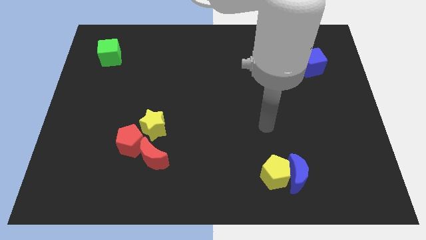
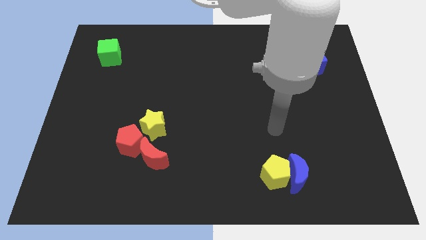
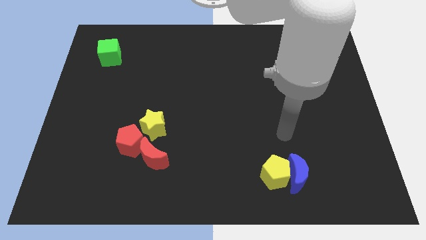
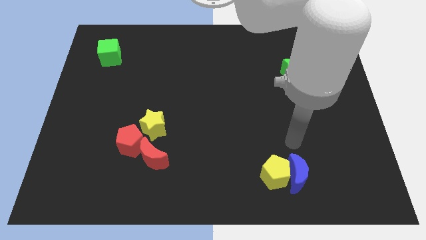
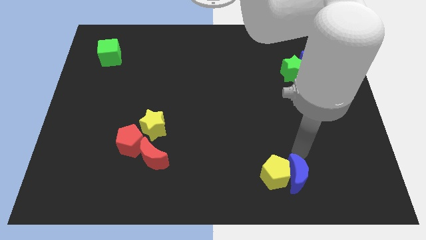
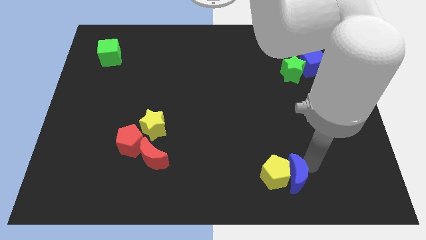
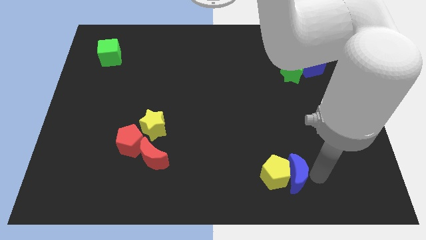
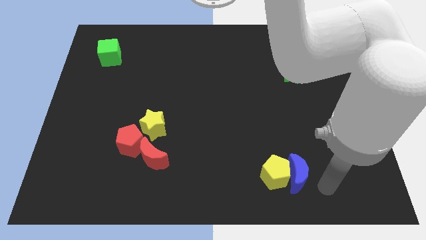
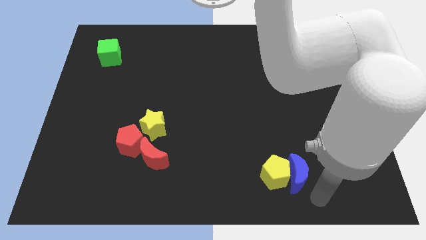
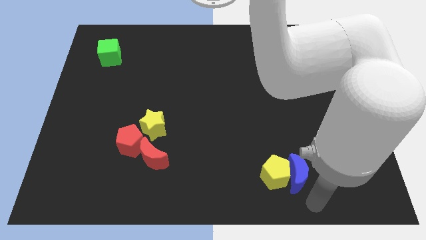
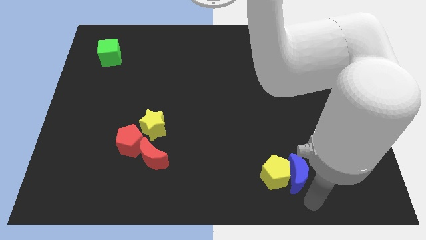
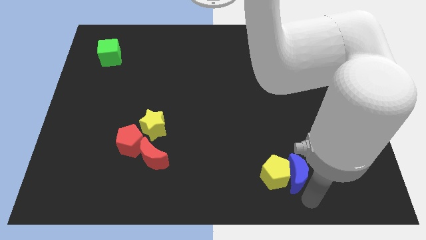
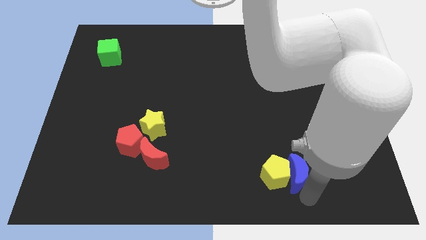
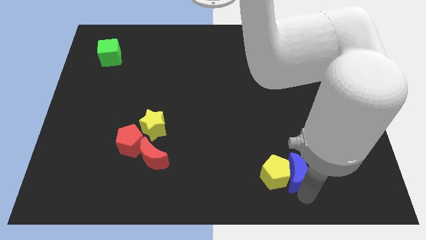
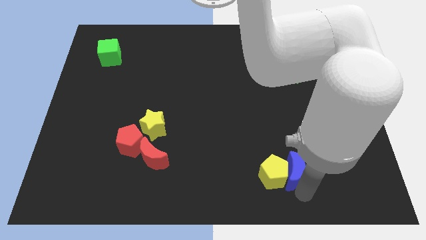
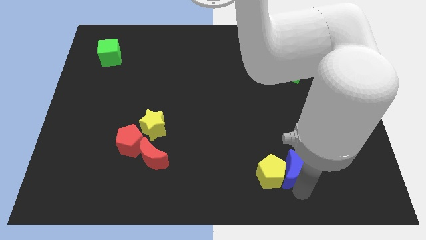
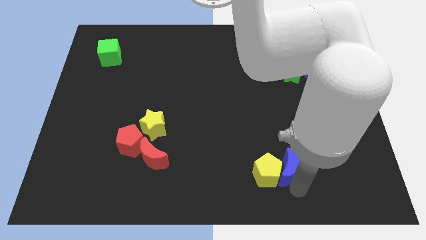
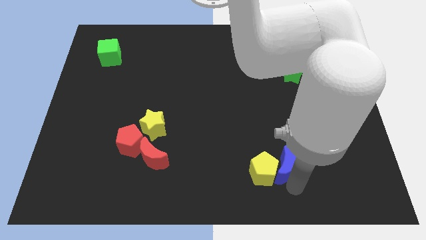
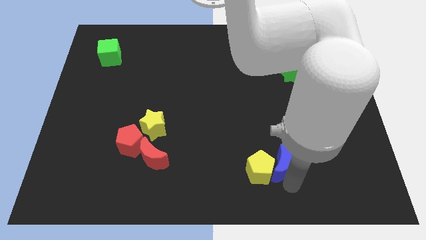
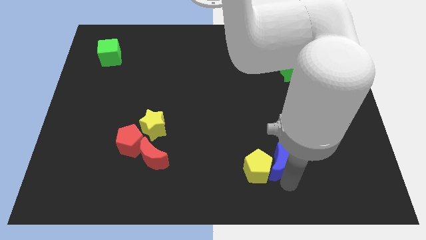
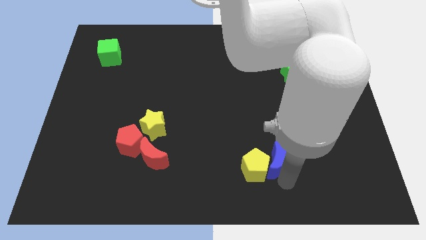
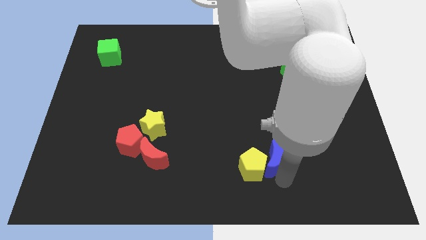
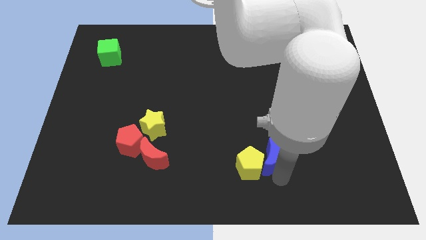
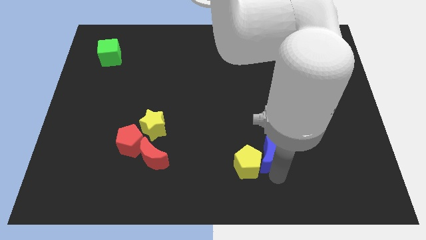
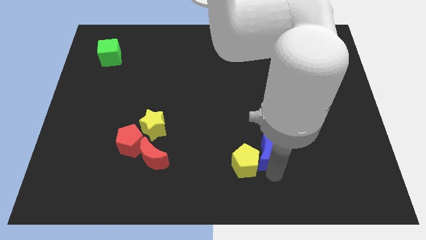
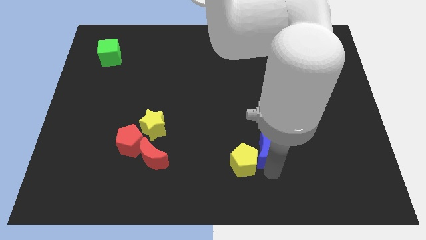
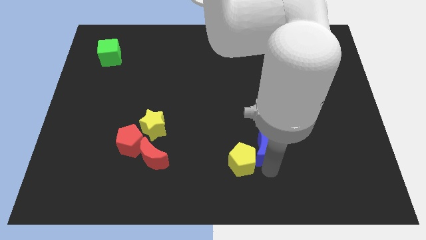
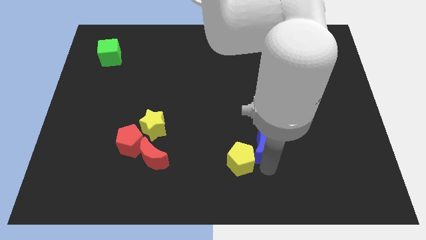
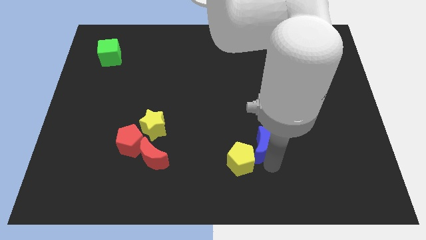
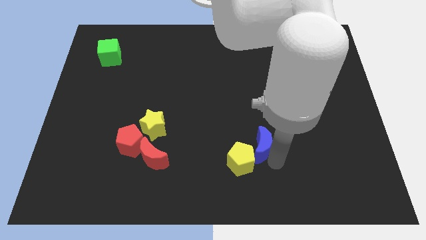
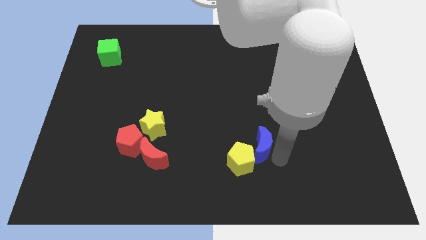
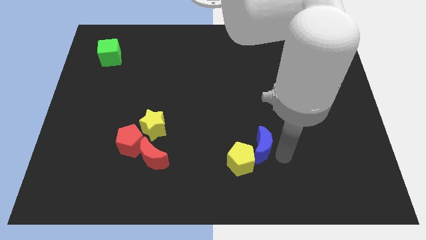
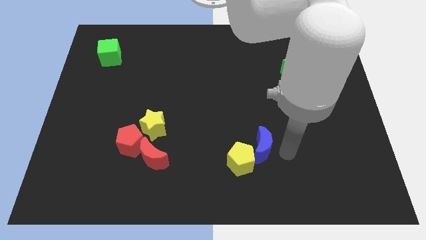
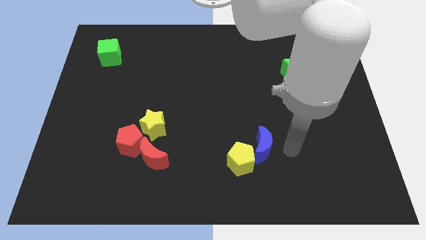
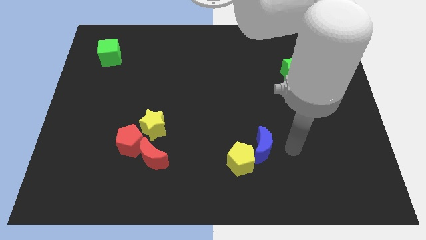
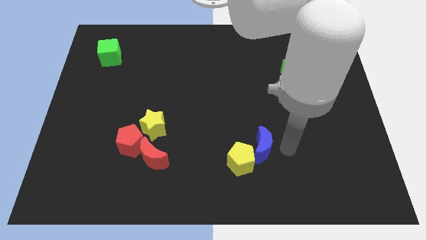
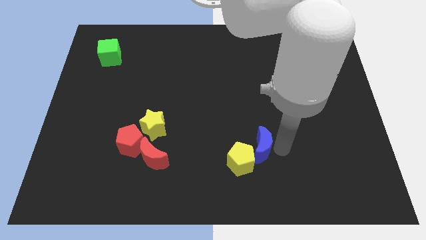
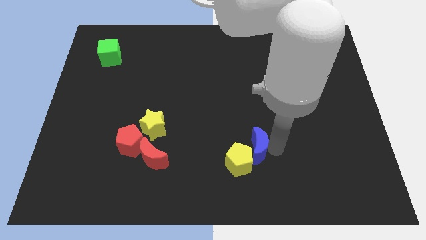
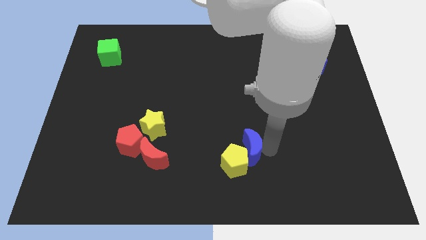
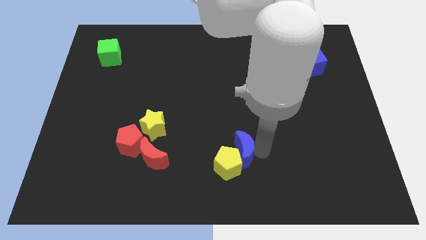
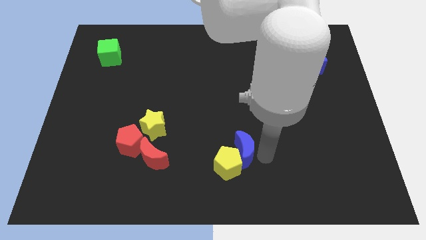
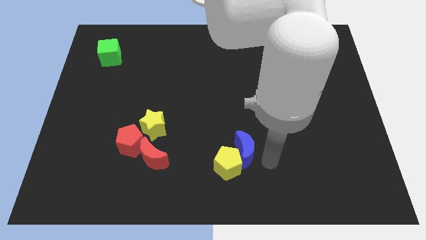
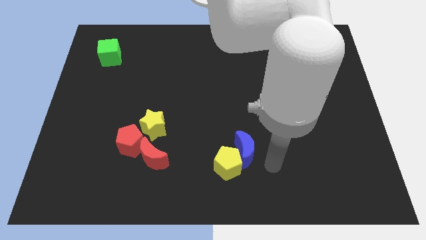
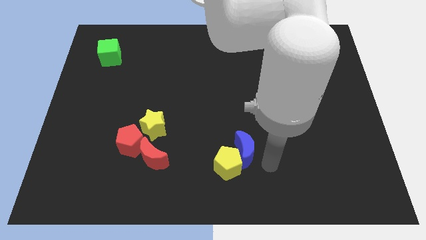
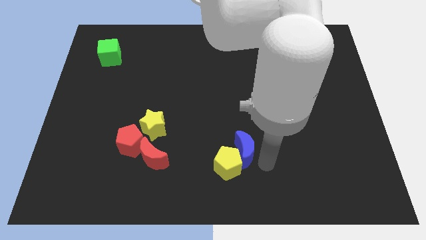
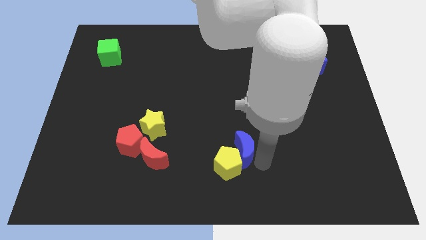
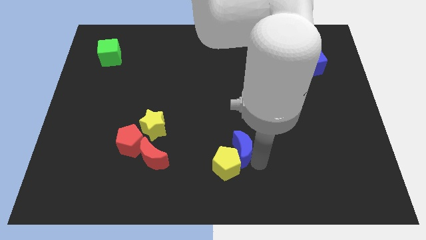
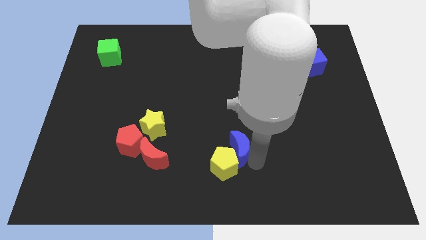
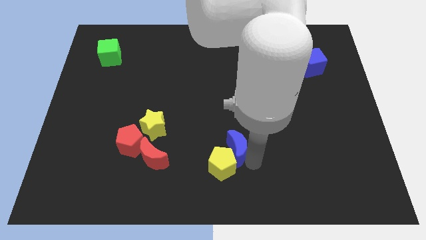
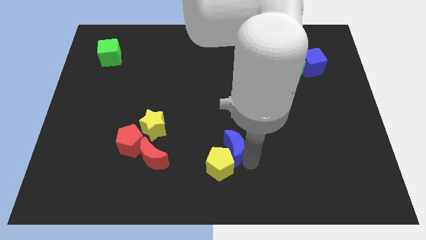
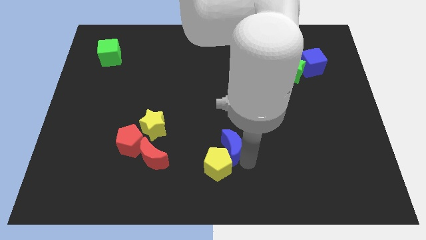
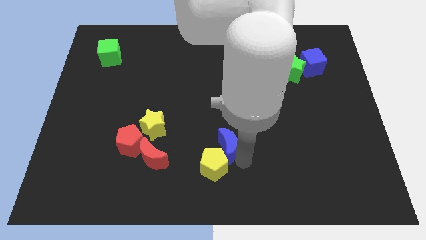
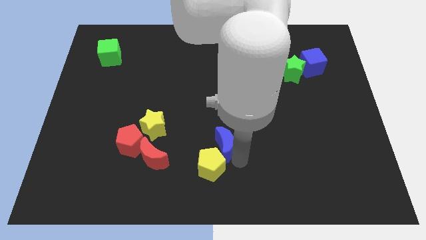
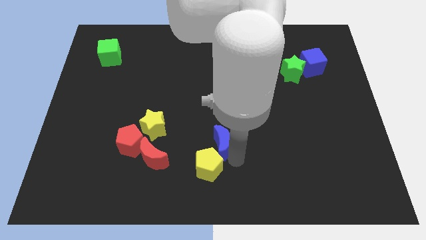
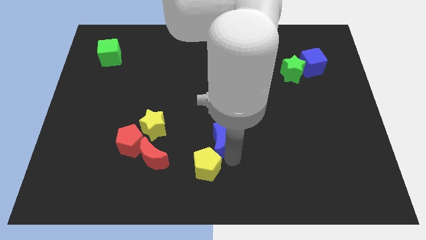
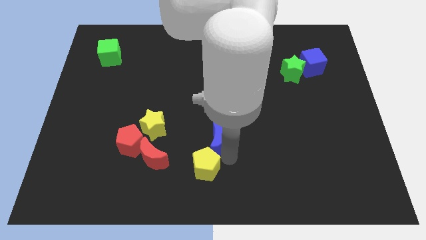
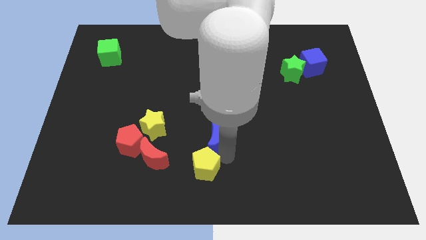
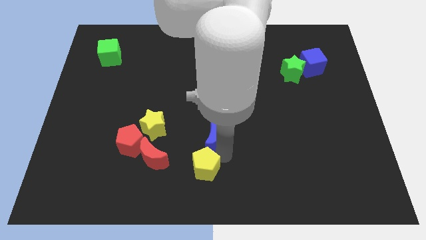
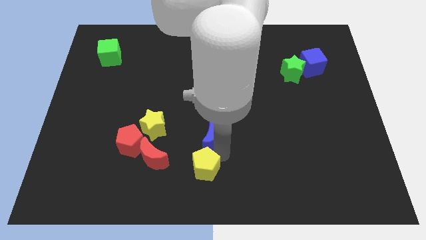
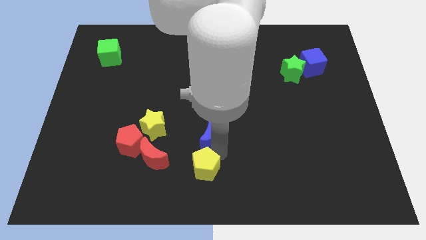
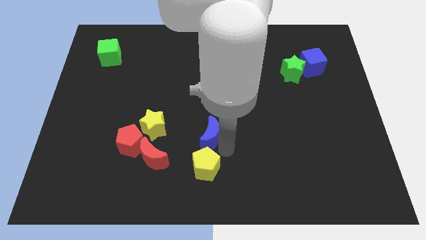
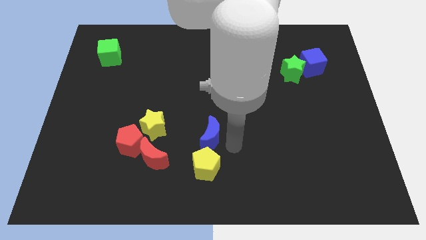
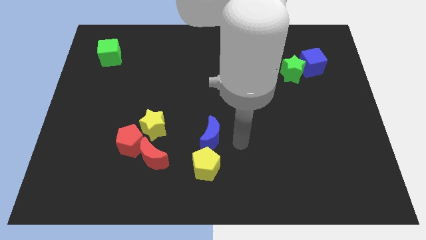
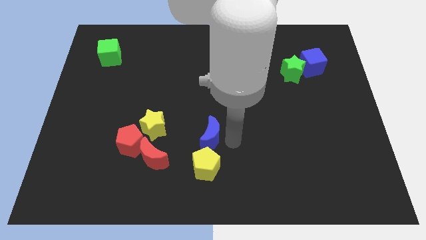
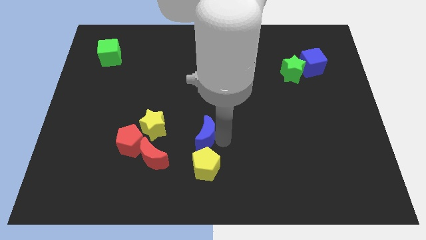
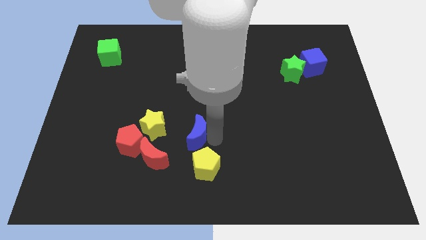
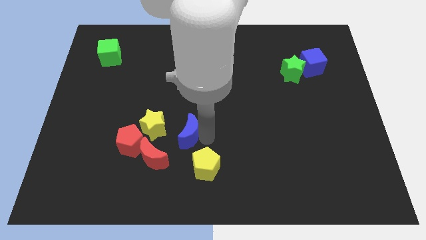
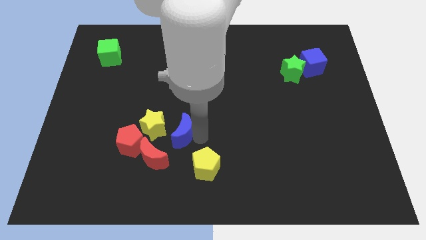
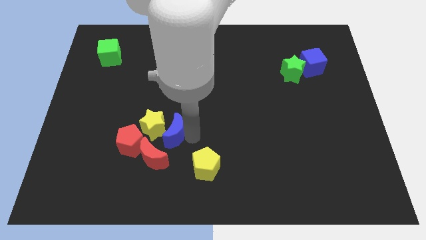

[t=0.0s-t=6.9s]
move the blue moon close to the yellow star

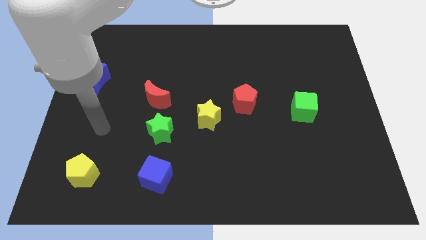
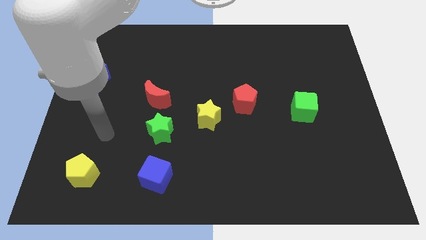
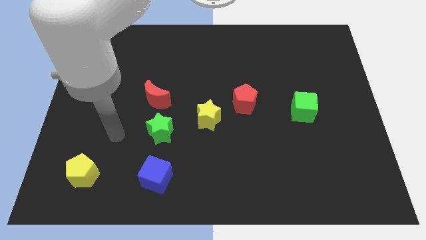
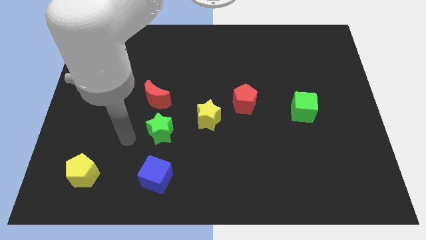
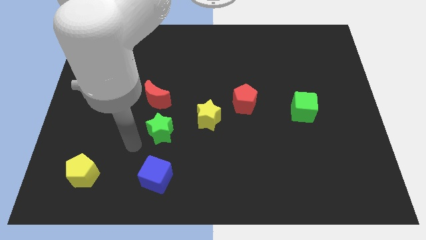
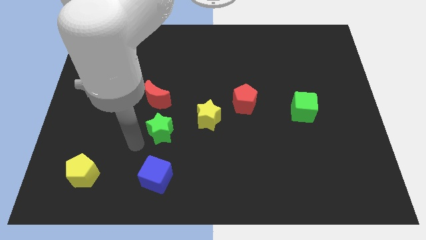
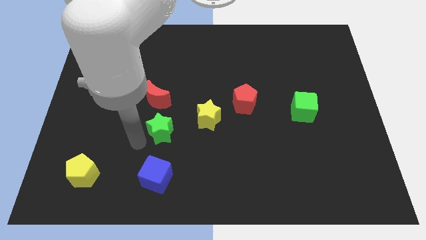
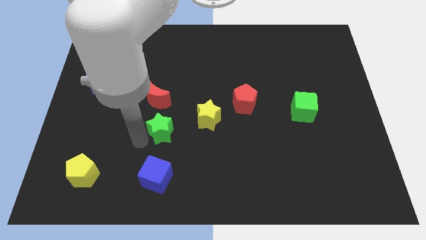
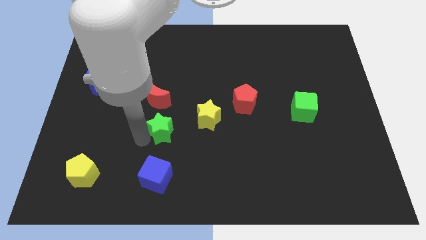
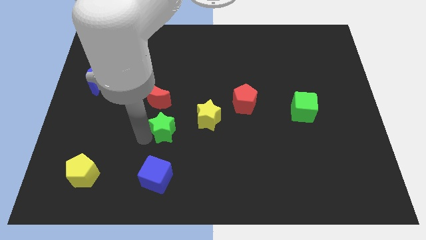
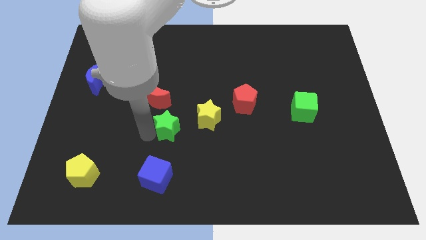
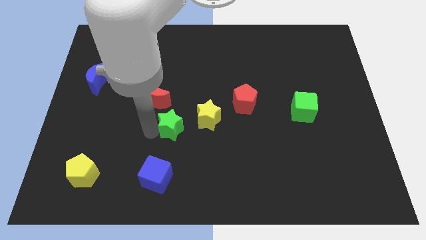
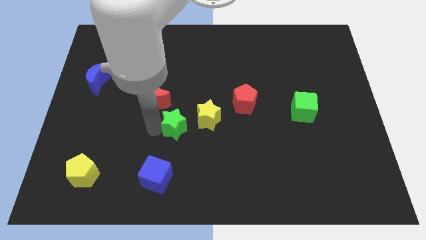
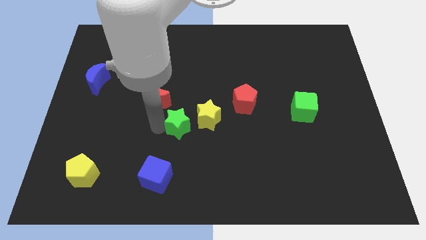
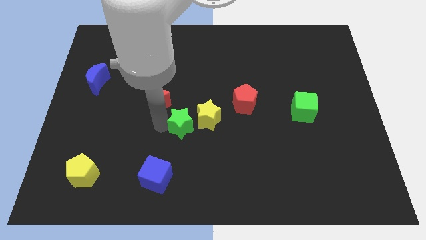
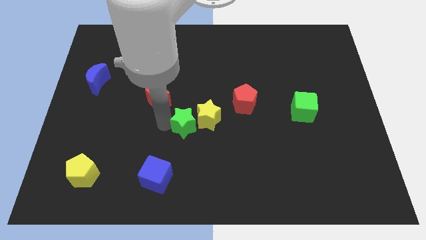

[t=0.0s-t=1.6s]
slide the green star close to the yellow star
